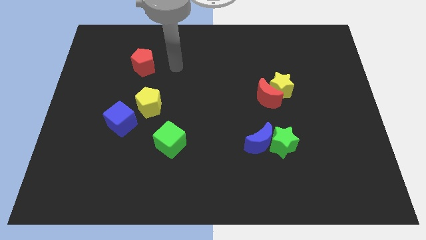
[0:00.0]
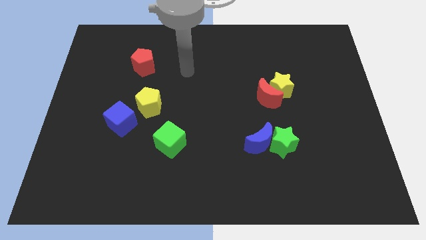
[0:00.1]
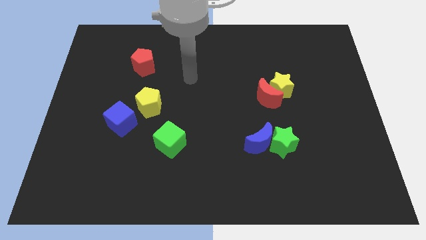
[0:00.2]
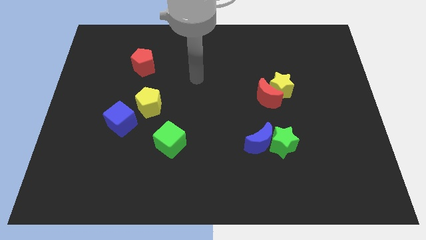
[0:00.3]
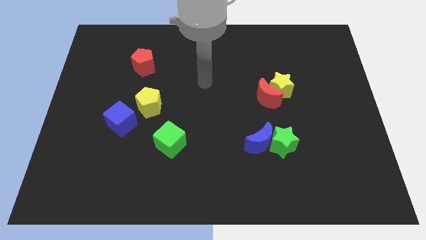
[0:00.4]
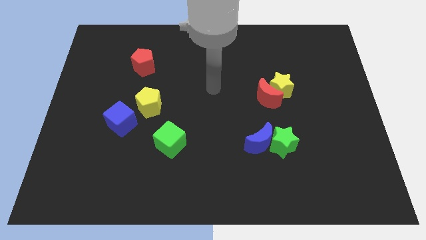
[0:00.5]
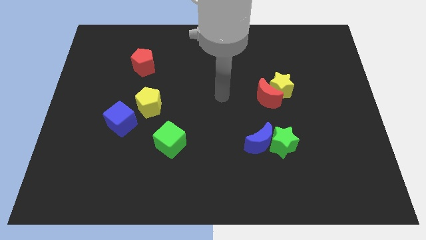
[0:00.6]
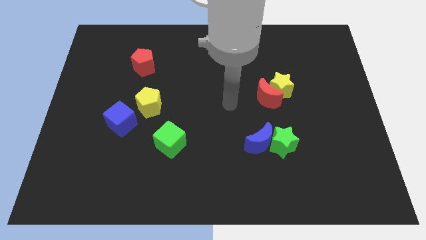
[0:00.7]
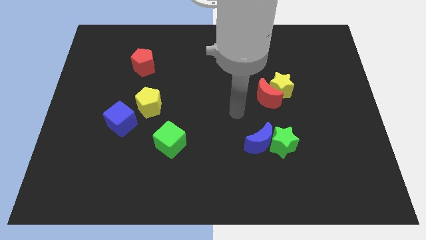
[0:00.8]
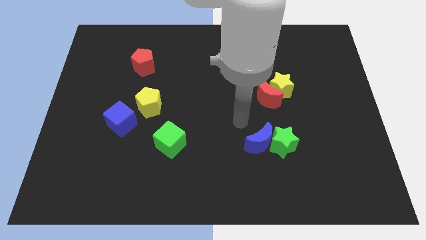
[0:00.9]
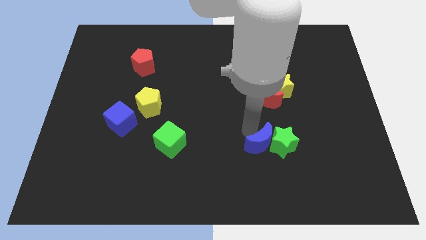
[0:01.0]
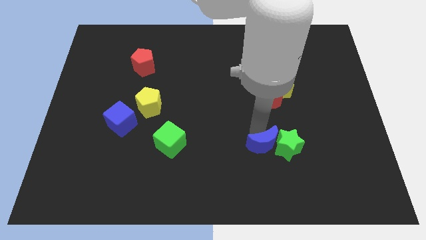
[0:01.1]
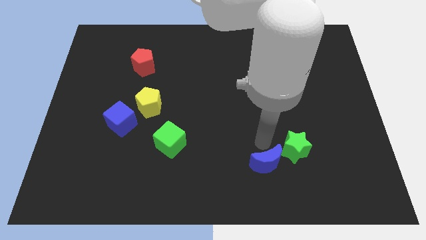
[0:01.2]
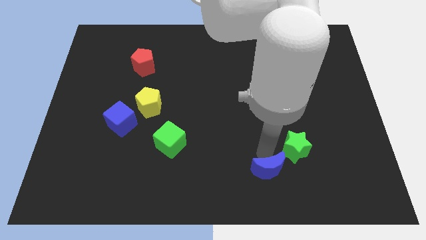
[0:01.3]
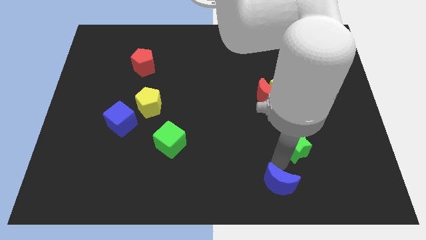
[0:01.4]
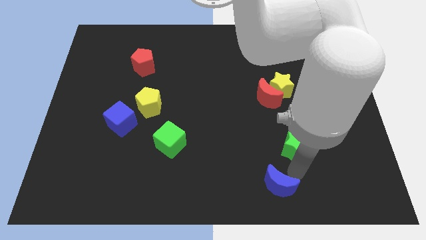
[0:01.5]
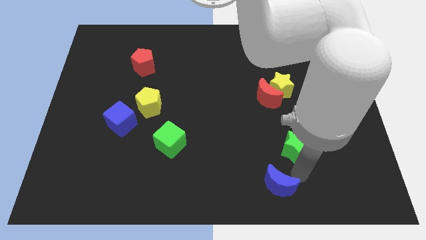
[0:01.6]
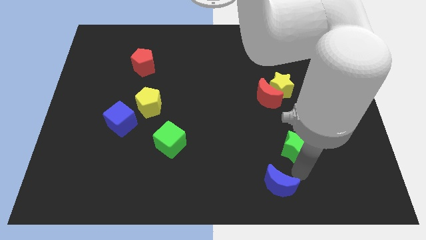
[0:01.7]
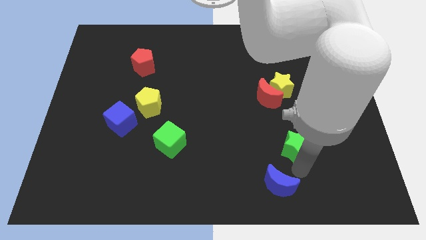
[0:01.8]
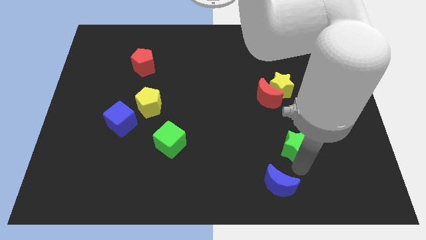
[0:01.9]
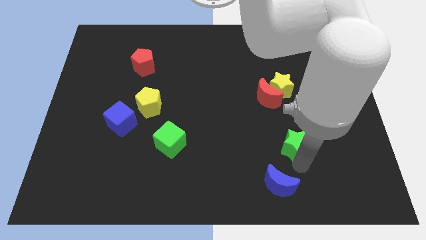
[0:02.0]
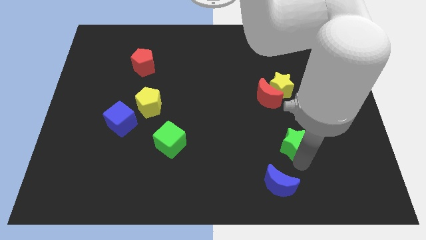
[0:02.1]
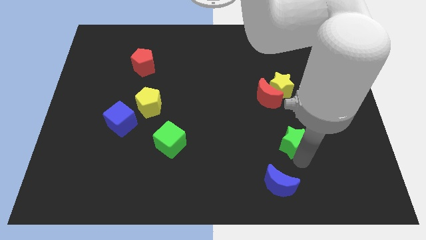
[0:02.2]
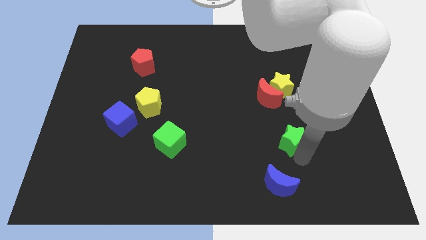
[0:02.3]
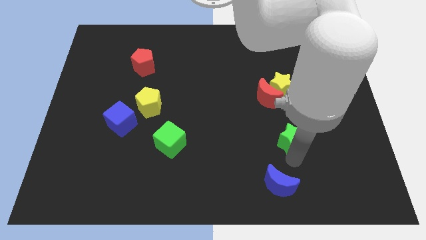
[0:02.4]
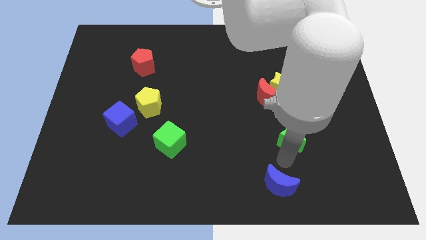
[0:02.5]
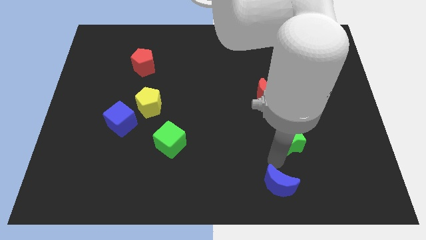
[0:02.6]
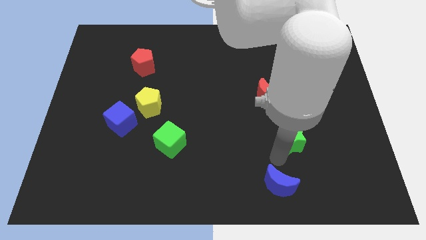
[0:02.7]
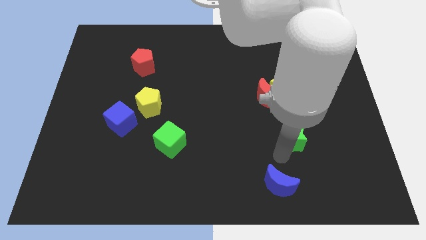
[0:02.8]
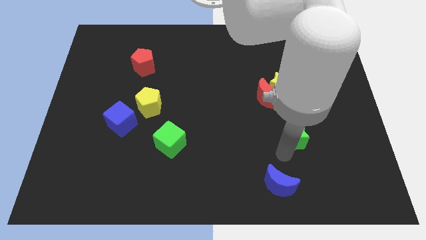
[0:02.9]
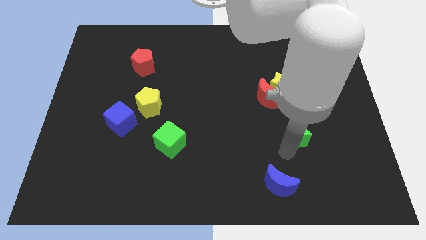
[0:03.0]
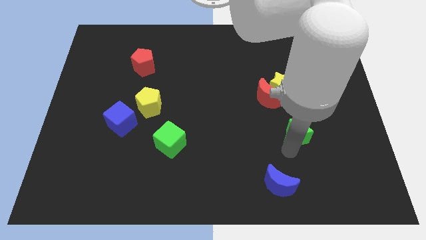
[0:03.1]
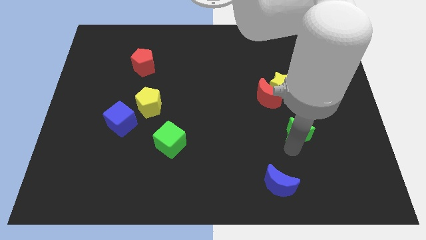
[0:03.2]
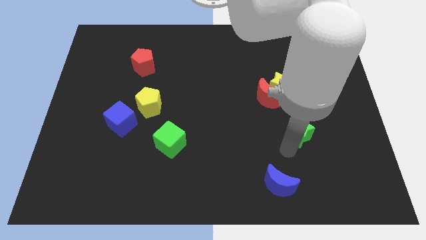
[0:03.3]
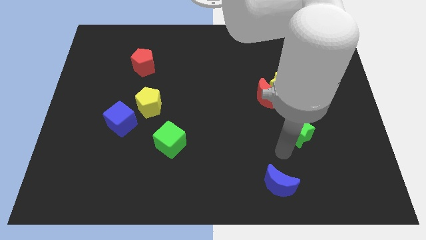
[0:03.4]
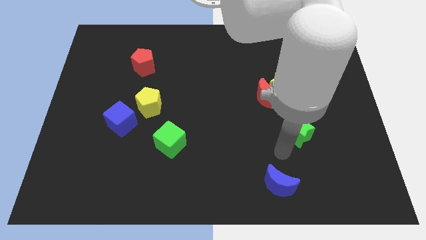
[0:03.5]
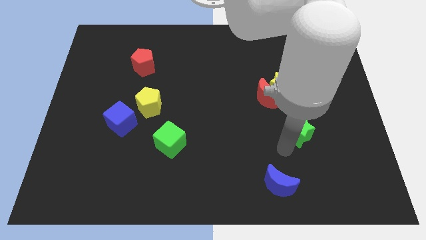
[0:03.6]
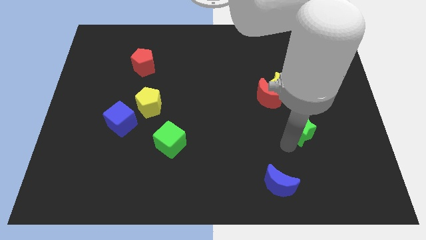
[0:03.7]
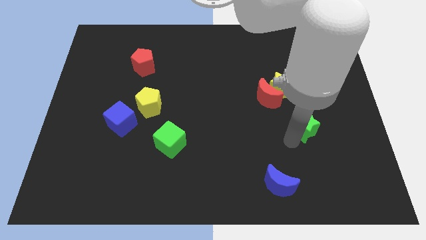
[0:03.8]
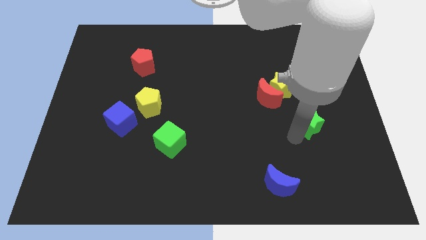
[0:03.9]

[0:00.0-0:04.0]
push the green star a little up and right

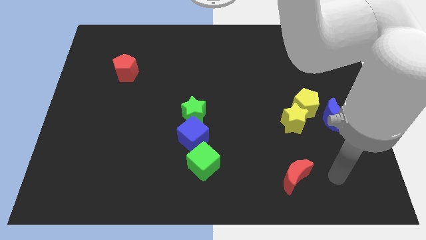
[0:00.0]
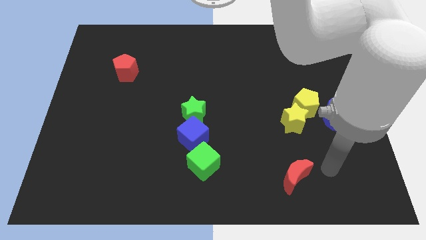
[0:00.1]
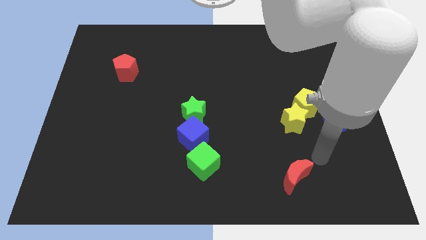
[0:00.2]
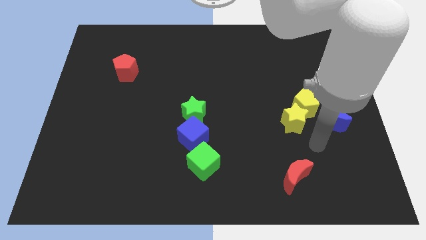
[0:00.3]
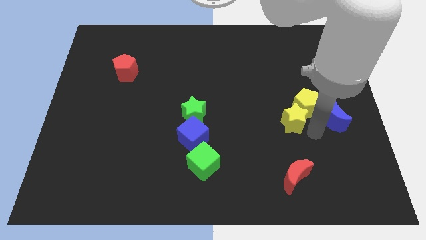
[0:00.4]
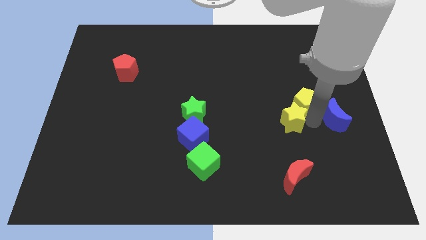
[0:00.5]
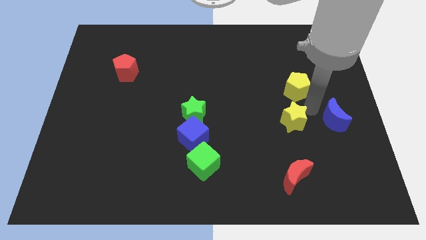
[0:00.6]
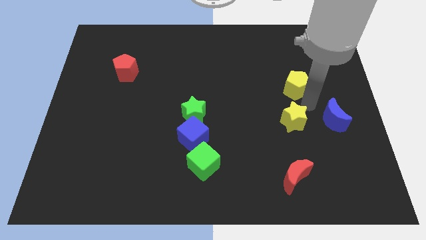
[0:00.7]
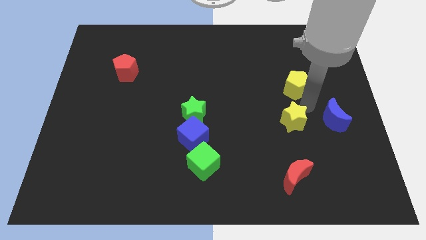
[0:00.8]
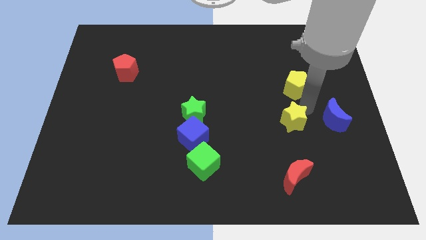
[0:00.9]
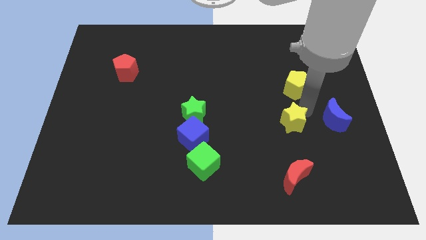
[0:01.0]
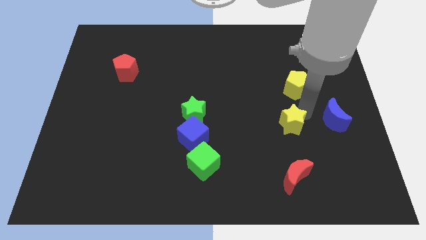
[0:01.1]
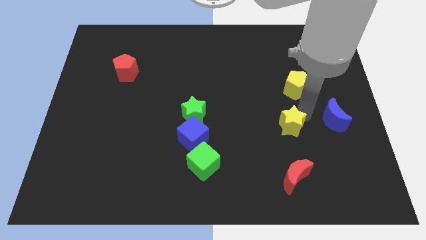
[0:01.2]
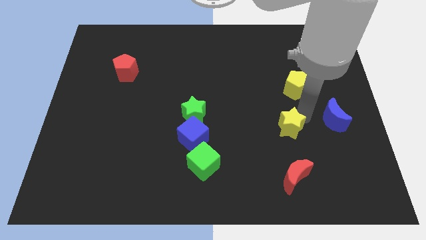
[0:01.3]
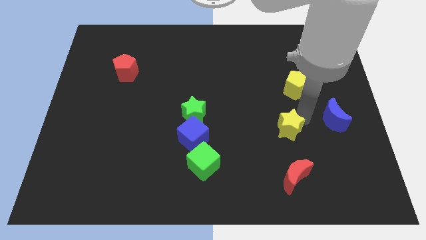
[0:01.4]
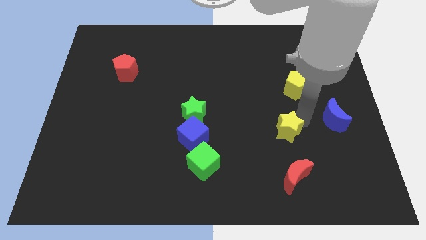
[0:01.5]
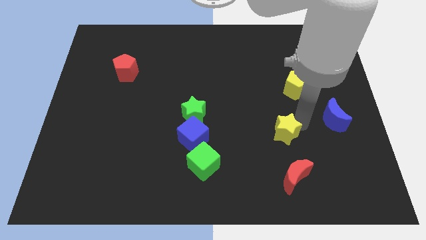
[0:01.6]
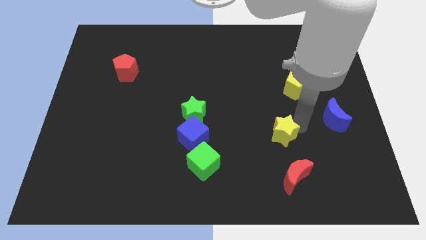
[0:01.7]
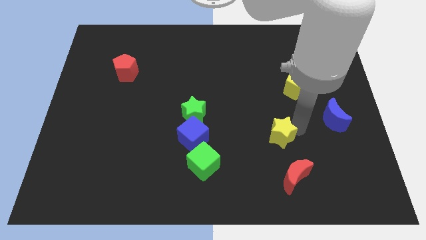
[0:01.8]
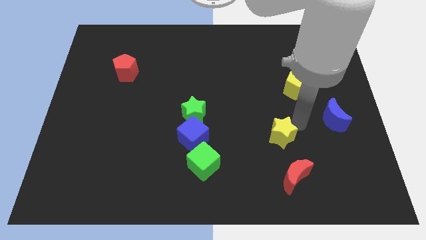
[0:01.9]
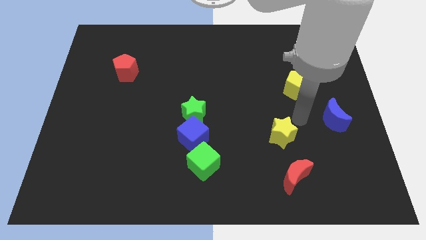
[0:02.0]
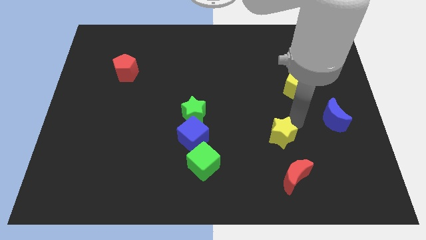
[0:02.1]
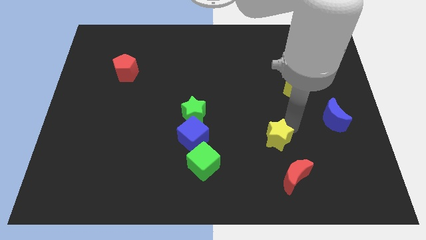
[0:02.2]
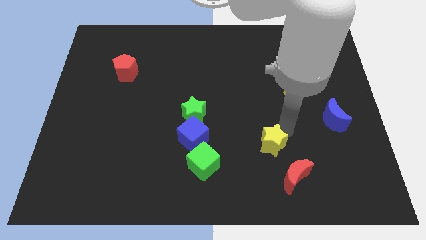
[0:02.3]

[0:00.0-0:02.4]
move the yellow star diagonally downwards and to the left slightly

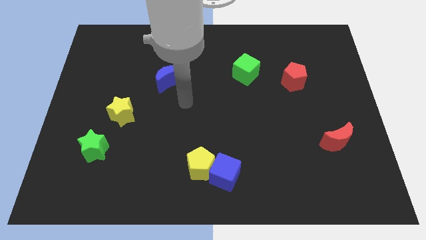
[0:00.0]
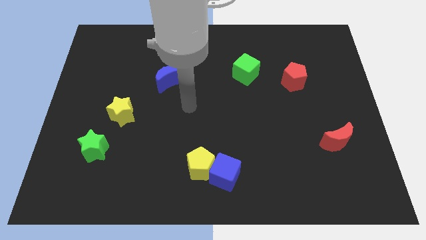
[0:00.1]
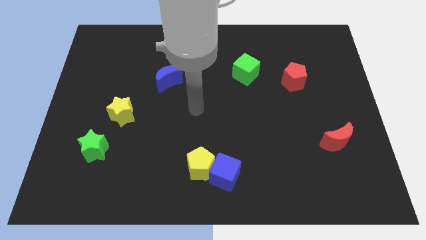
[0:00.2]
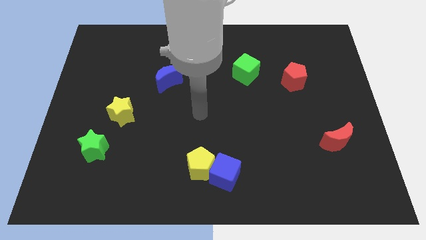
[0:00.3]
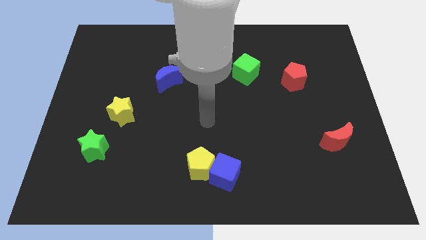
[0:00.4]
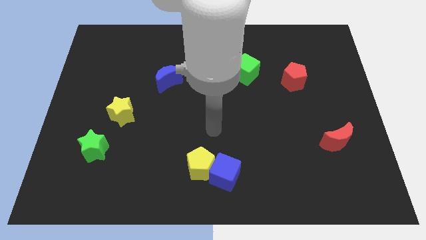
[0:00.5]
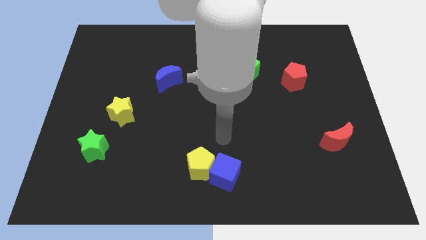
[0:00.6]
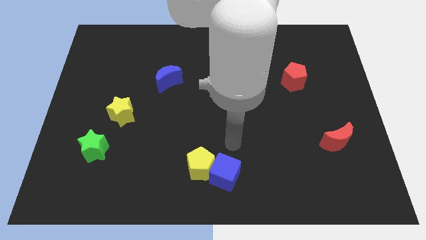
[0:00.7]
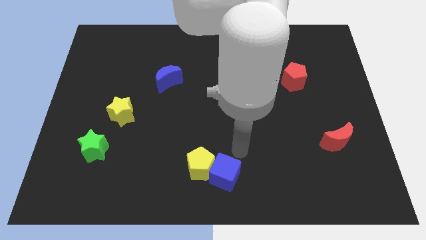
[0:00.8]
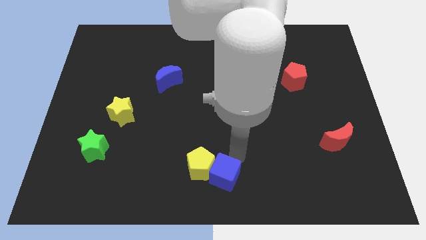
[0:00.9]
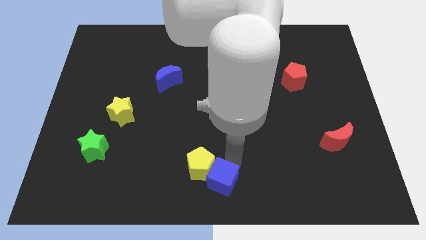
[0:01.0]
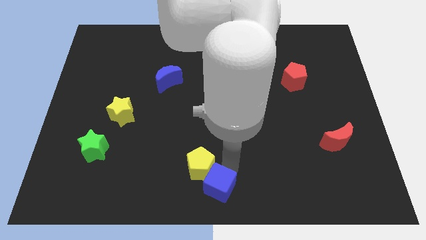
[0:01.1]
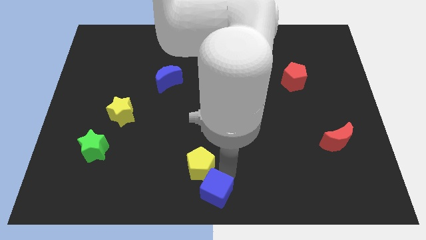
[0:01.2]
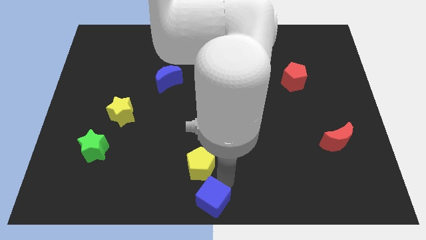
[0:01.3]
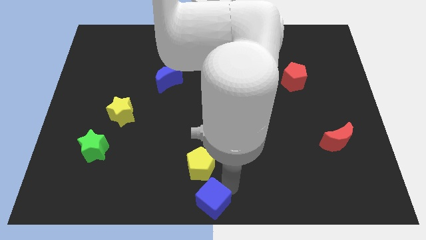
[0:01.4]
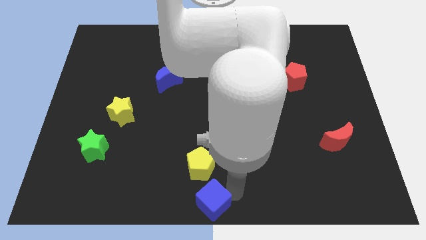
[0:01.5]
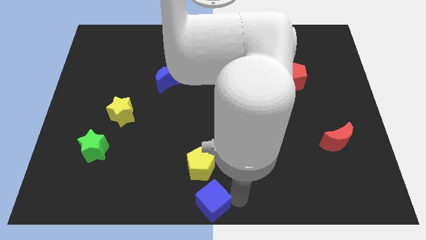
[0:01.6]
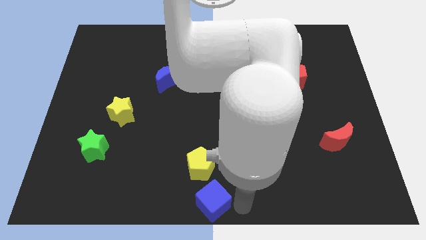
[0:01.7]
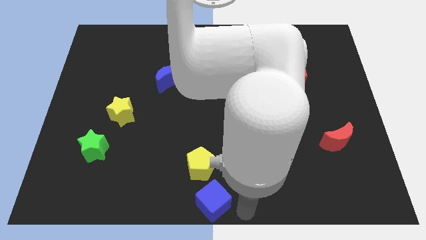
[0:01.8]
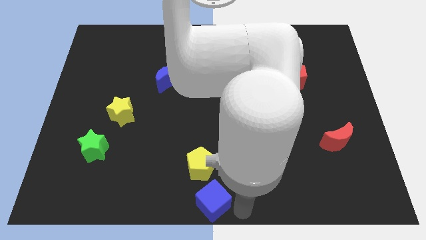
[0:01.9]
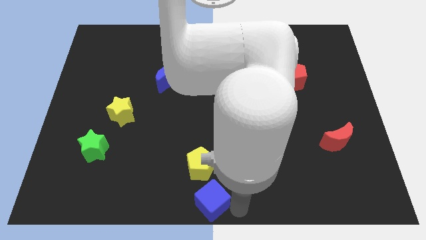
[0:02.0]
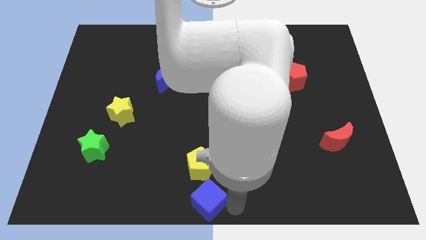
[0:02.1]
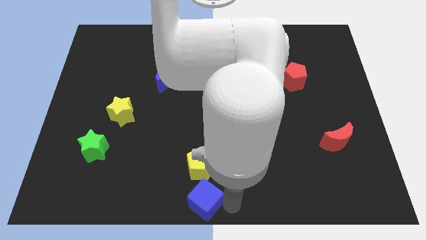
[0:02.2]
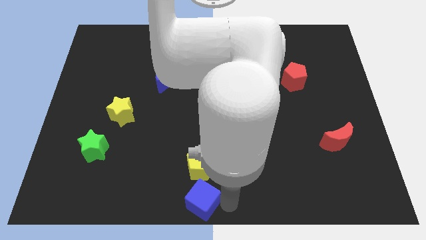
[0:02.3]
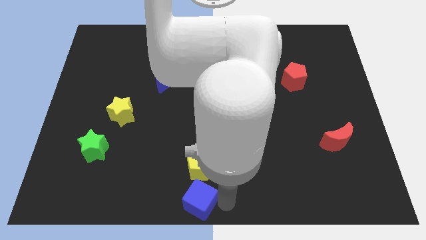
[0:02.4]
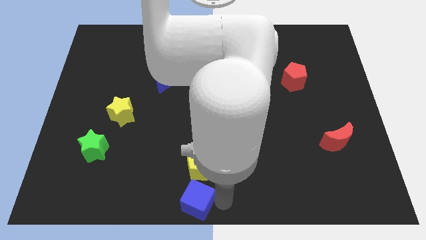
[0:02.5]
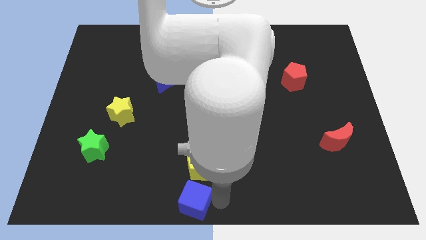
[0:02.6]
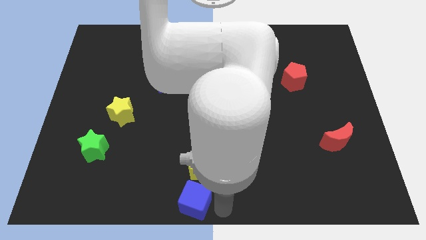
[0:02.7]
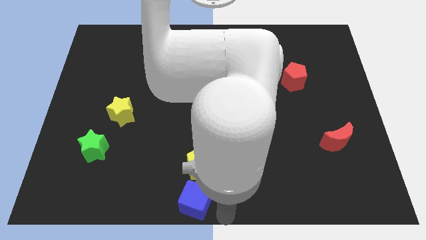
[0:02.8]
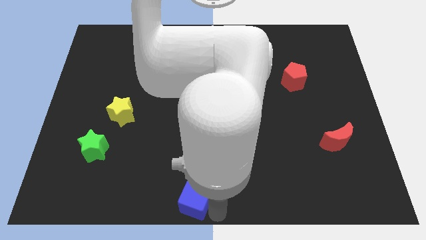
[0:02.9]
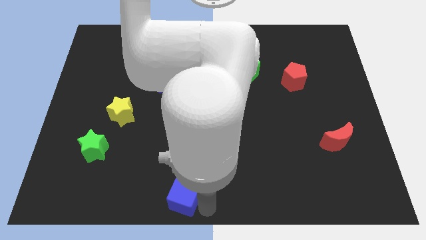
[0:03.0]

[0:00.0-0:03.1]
push the blue cube to the left a bit
